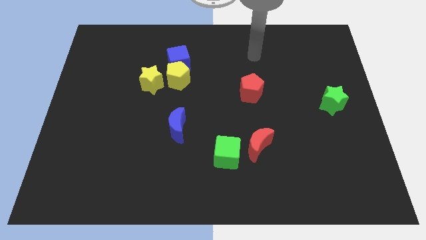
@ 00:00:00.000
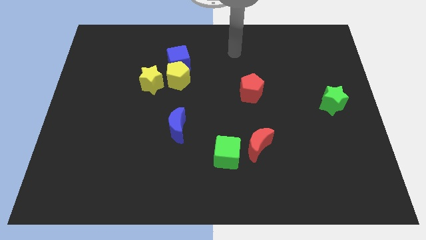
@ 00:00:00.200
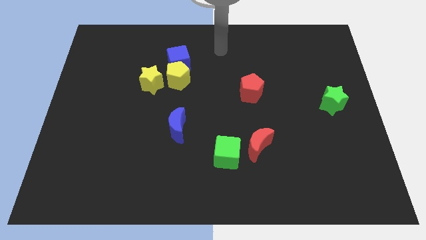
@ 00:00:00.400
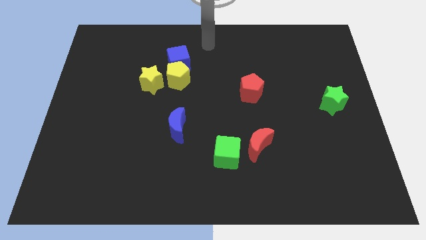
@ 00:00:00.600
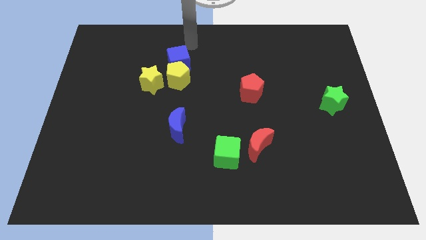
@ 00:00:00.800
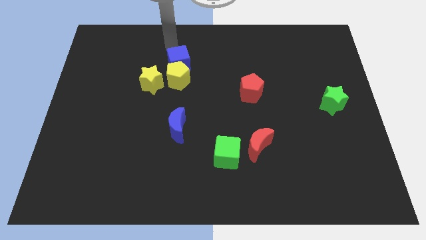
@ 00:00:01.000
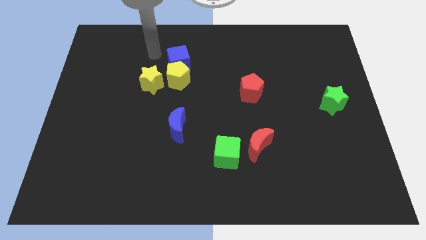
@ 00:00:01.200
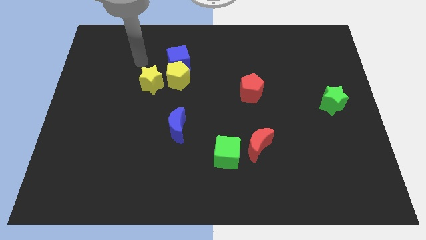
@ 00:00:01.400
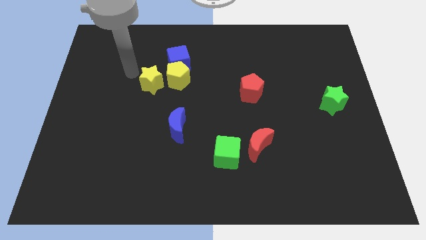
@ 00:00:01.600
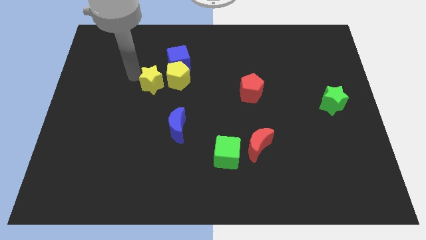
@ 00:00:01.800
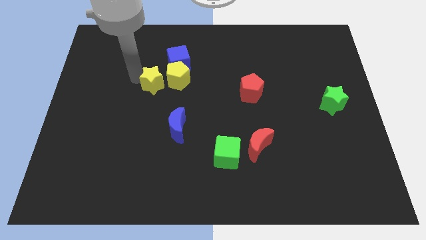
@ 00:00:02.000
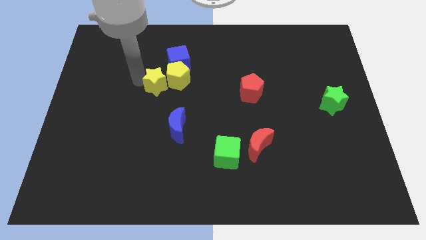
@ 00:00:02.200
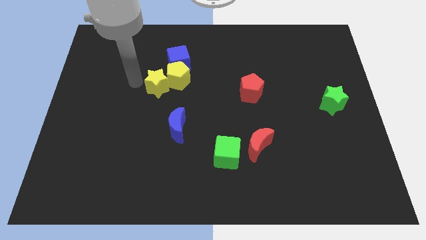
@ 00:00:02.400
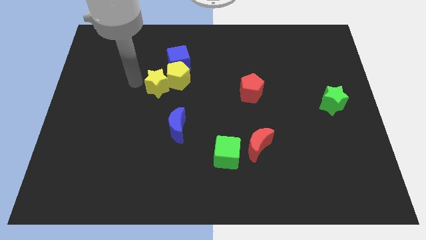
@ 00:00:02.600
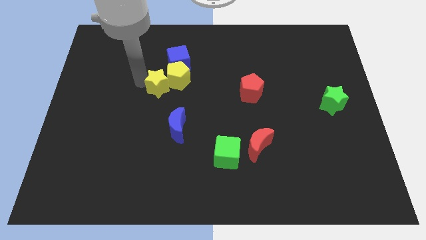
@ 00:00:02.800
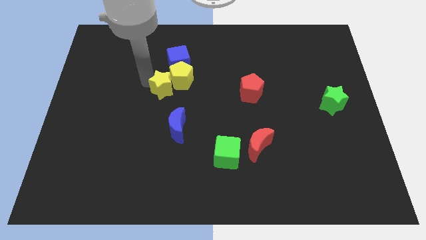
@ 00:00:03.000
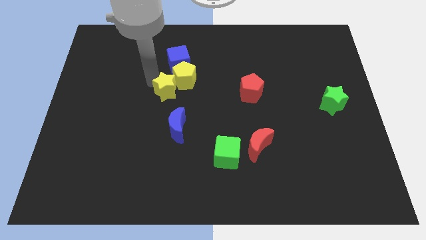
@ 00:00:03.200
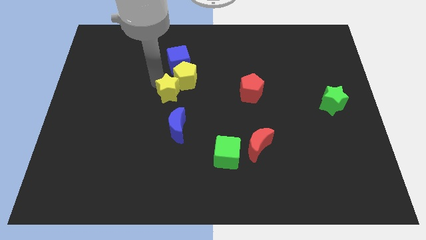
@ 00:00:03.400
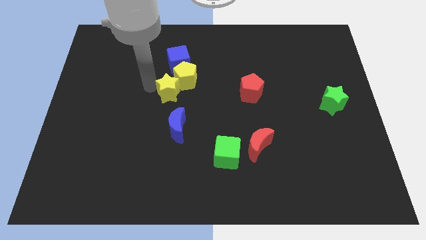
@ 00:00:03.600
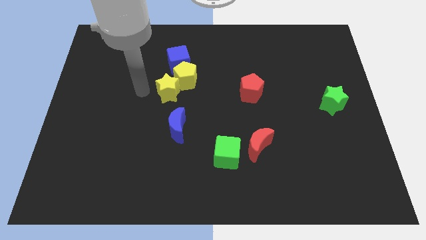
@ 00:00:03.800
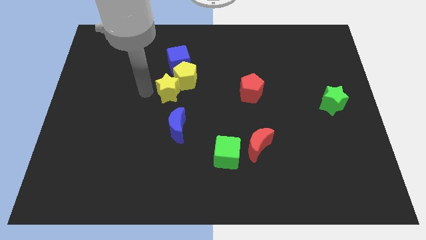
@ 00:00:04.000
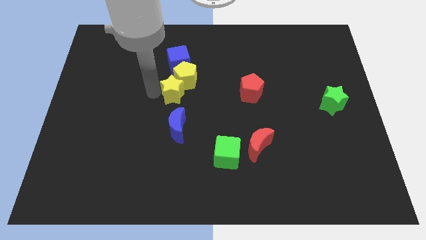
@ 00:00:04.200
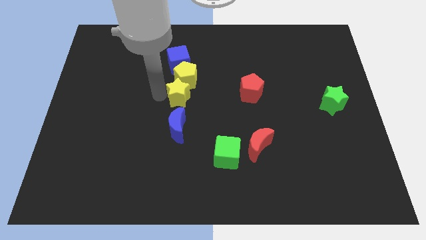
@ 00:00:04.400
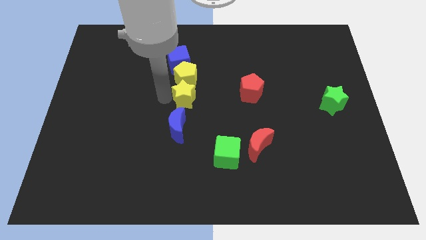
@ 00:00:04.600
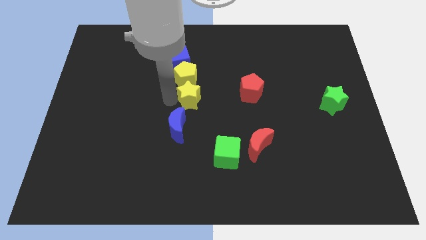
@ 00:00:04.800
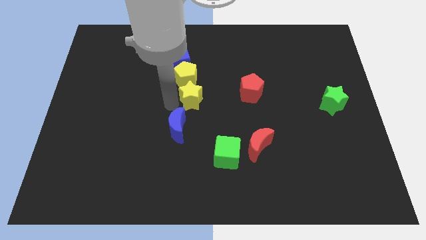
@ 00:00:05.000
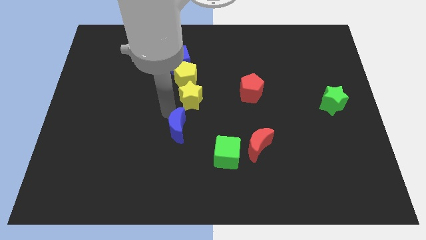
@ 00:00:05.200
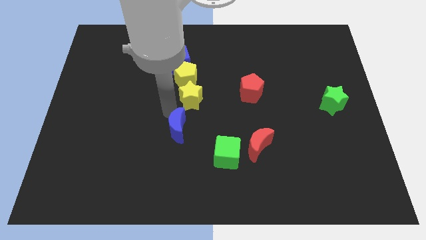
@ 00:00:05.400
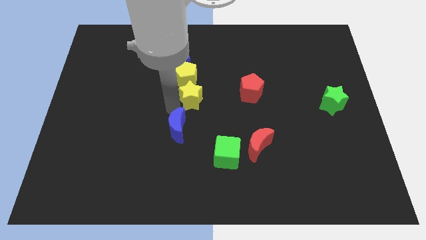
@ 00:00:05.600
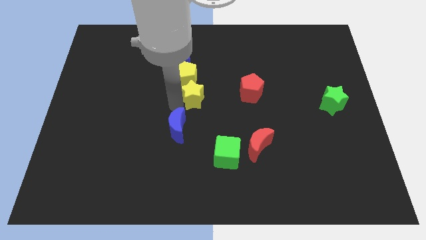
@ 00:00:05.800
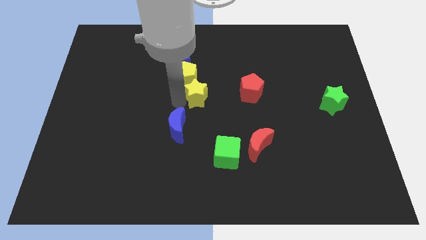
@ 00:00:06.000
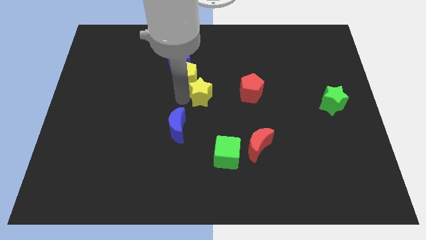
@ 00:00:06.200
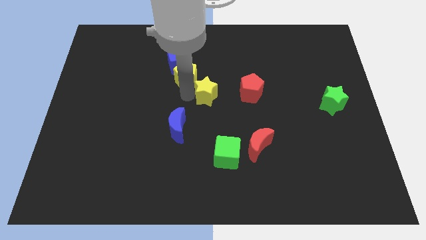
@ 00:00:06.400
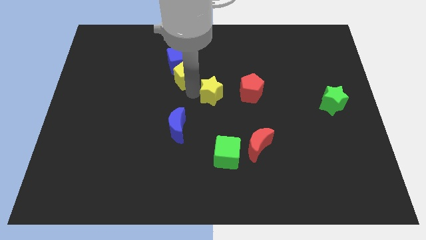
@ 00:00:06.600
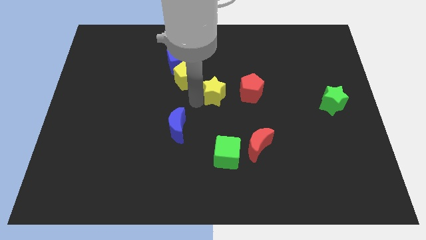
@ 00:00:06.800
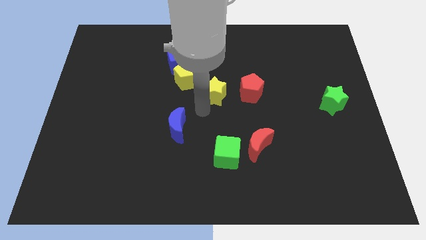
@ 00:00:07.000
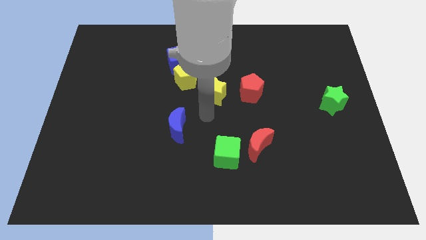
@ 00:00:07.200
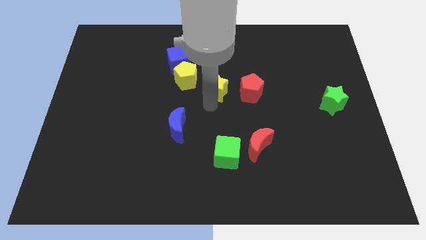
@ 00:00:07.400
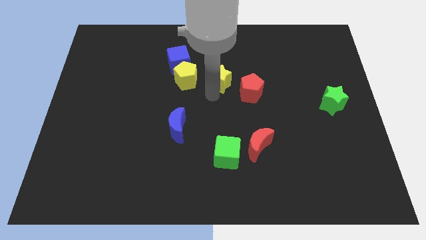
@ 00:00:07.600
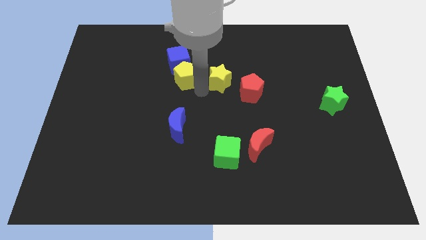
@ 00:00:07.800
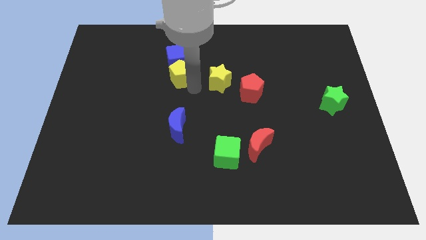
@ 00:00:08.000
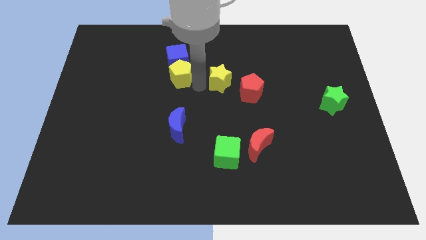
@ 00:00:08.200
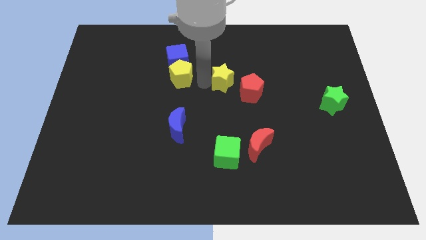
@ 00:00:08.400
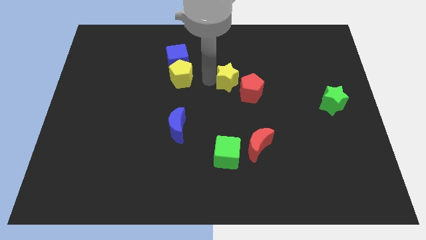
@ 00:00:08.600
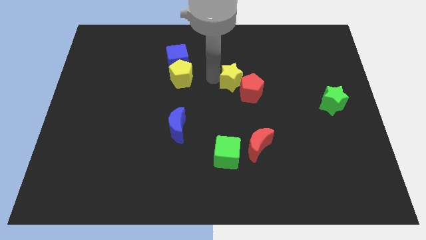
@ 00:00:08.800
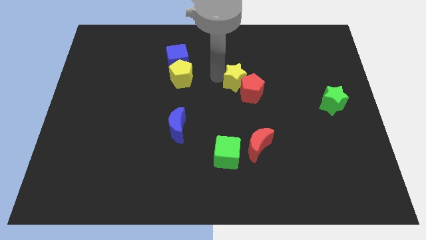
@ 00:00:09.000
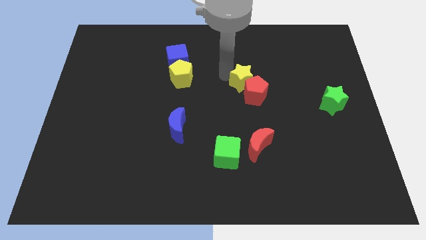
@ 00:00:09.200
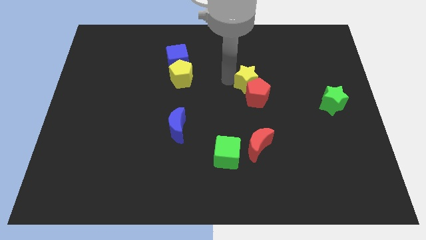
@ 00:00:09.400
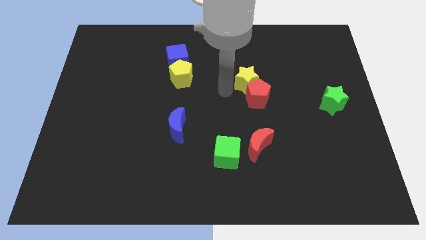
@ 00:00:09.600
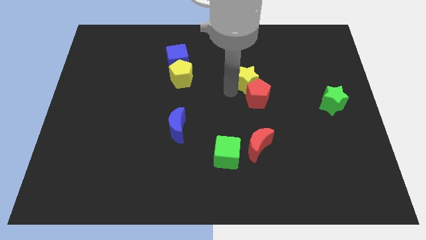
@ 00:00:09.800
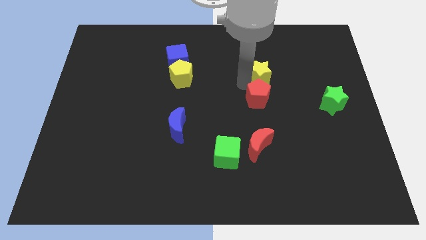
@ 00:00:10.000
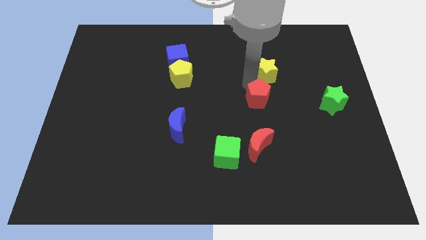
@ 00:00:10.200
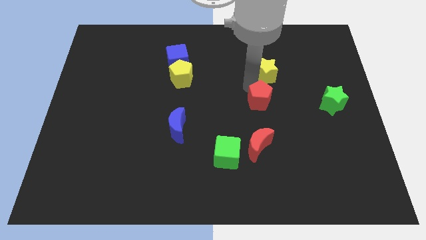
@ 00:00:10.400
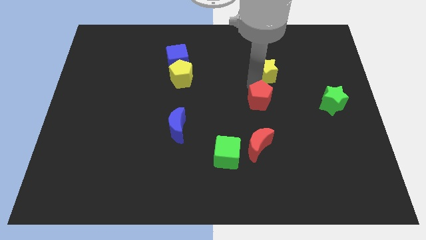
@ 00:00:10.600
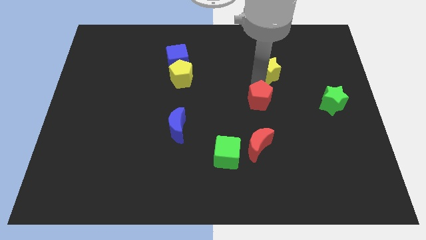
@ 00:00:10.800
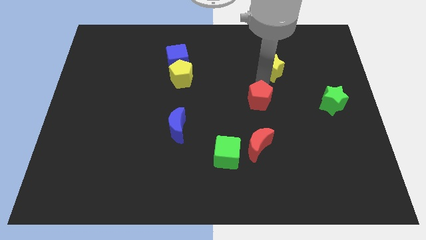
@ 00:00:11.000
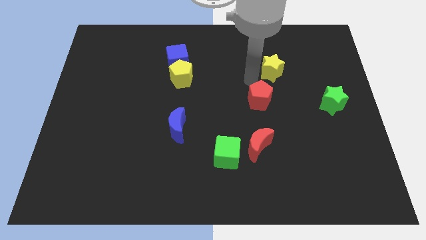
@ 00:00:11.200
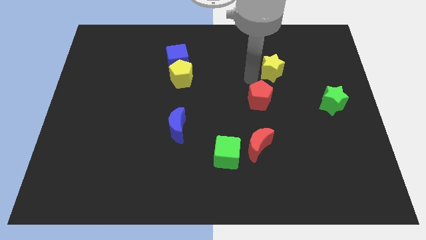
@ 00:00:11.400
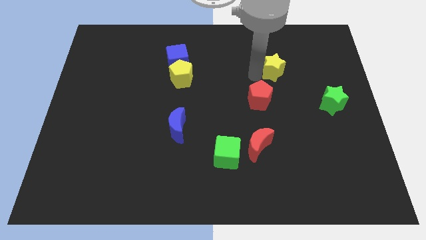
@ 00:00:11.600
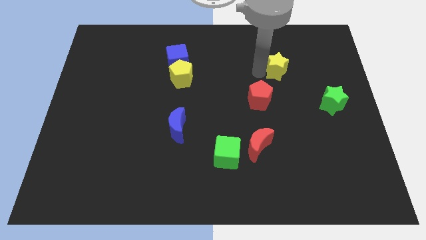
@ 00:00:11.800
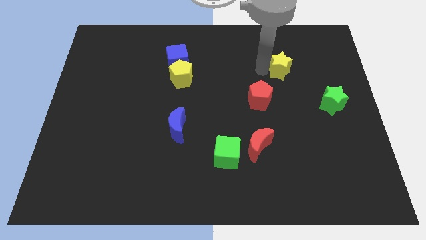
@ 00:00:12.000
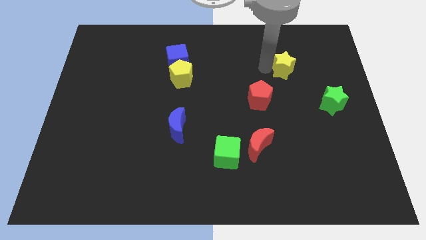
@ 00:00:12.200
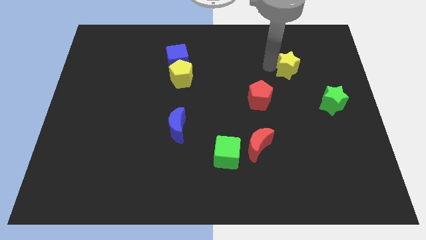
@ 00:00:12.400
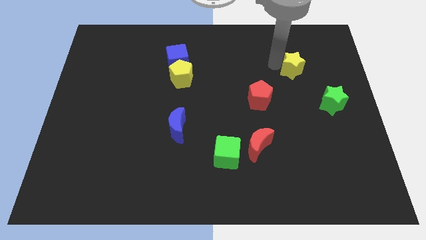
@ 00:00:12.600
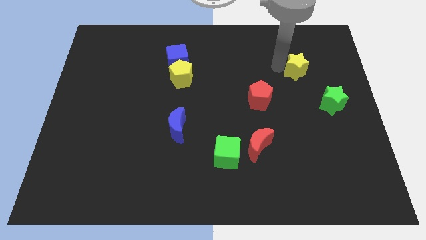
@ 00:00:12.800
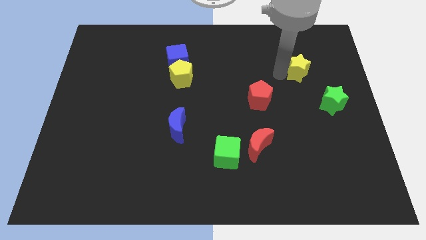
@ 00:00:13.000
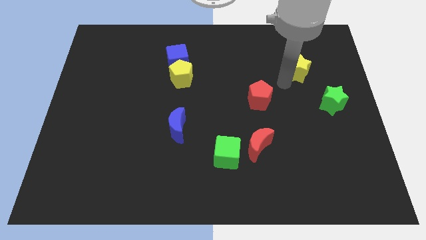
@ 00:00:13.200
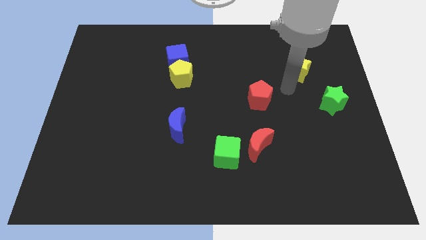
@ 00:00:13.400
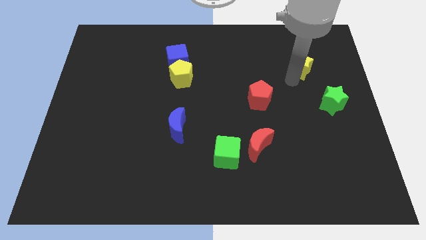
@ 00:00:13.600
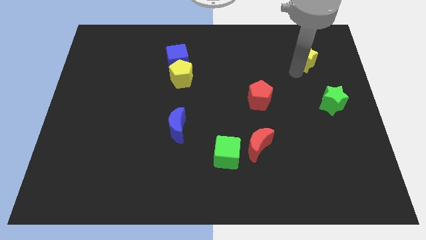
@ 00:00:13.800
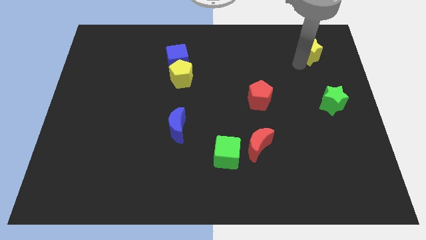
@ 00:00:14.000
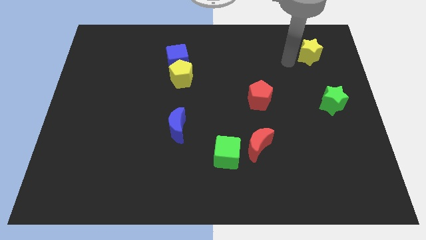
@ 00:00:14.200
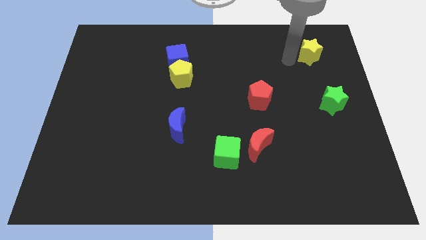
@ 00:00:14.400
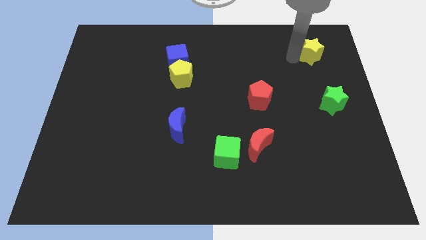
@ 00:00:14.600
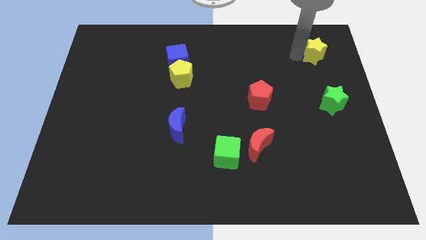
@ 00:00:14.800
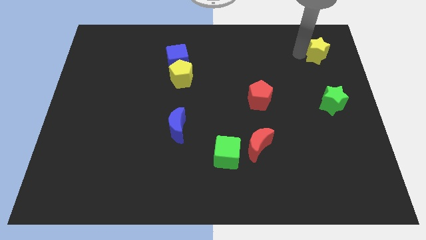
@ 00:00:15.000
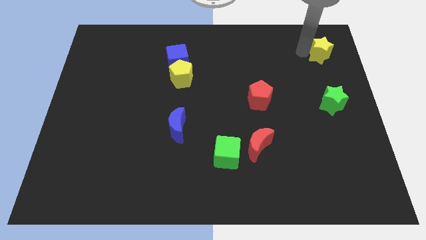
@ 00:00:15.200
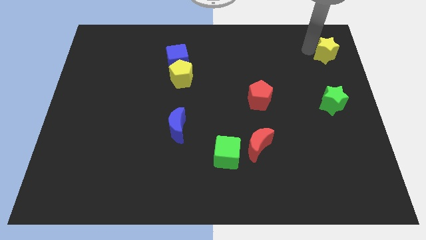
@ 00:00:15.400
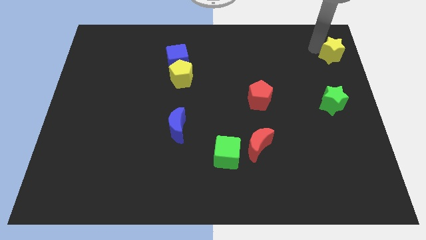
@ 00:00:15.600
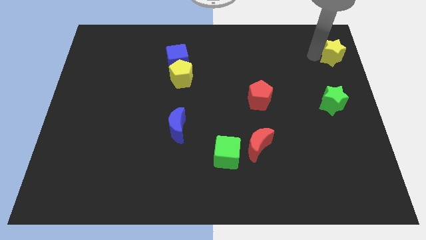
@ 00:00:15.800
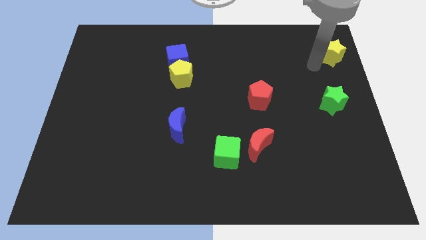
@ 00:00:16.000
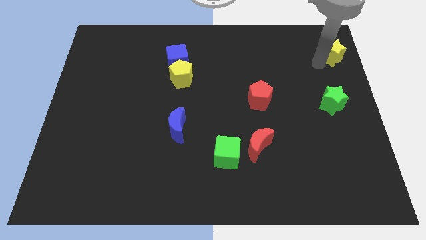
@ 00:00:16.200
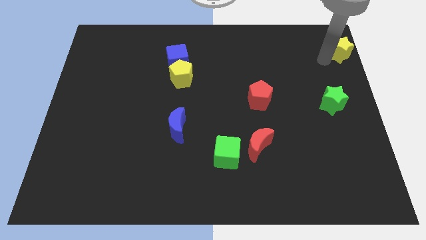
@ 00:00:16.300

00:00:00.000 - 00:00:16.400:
put the yellow star to the top right corner
